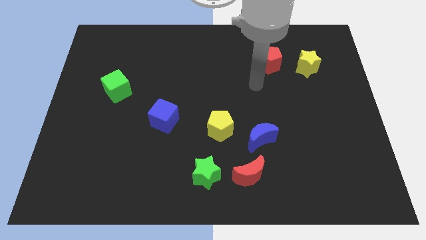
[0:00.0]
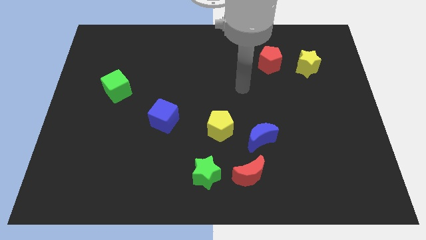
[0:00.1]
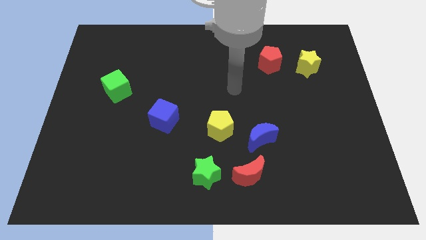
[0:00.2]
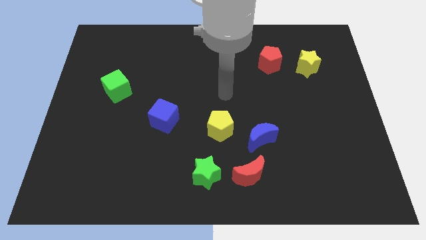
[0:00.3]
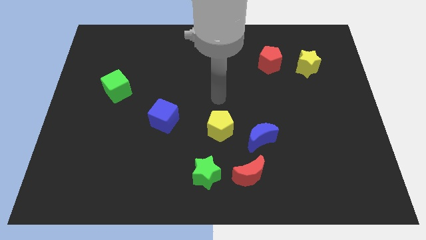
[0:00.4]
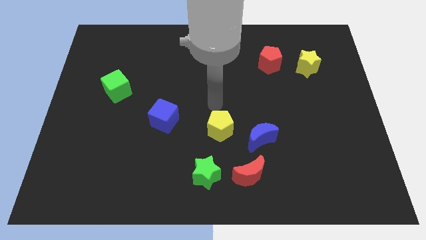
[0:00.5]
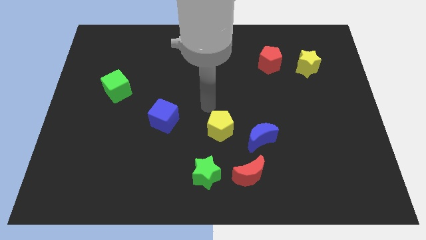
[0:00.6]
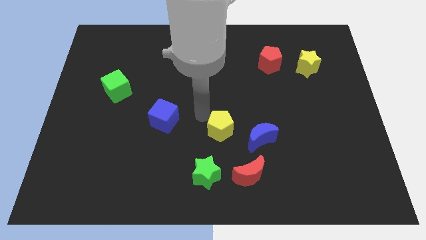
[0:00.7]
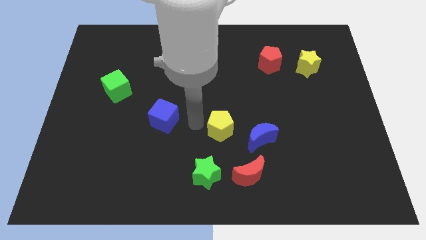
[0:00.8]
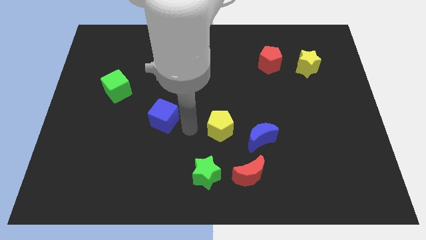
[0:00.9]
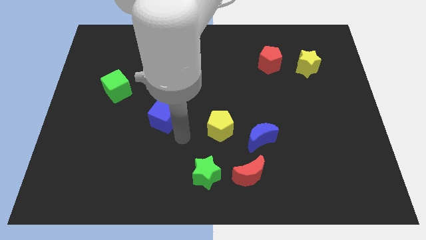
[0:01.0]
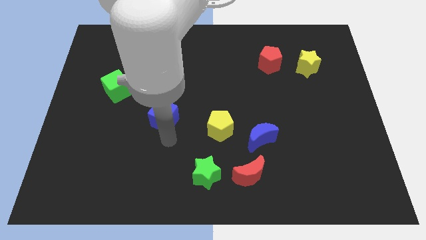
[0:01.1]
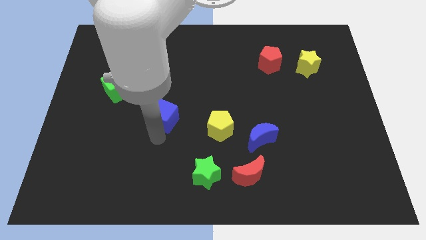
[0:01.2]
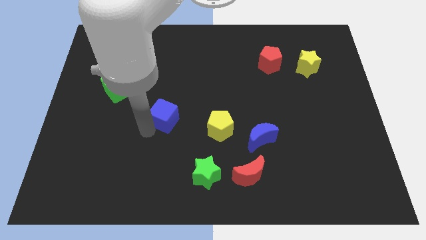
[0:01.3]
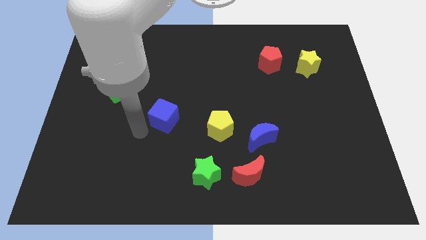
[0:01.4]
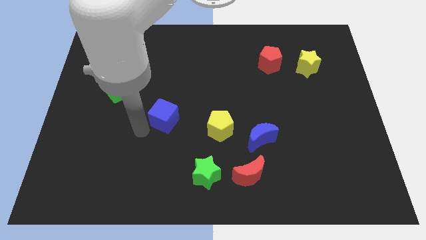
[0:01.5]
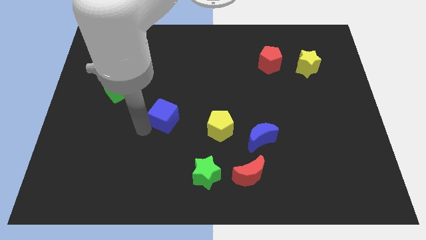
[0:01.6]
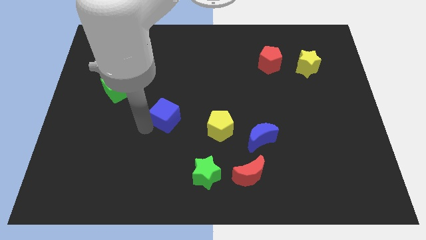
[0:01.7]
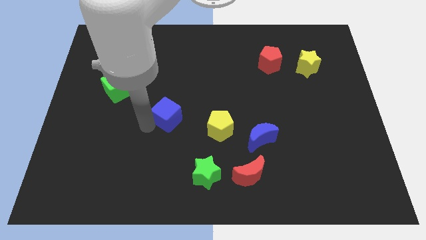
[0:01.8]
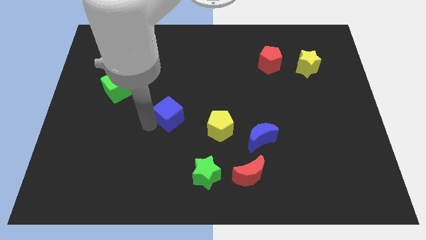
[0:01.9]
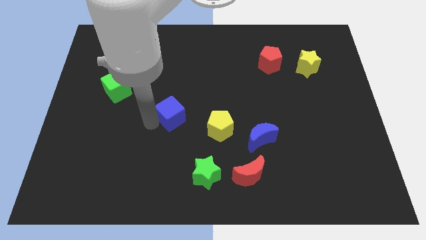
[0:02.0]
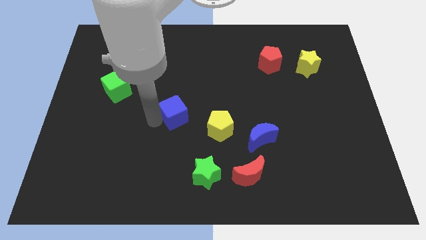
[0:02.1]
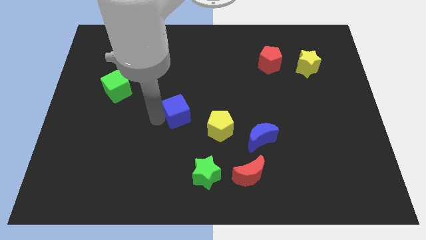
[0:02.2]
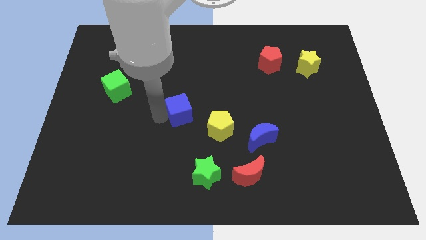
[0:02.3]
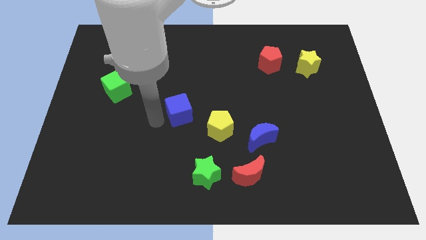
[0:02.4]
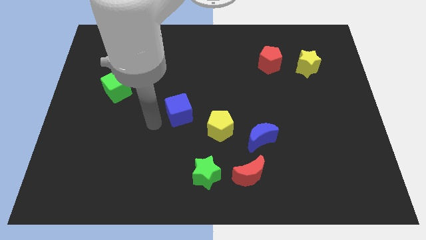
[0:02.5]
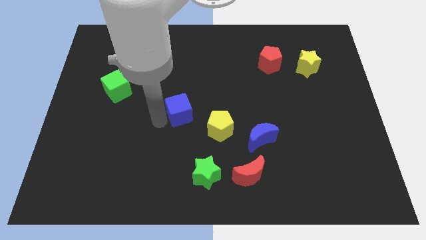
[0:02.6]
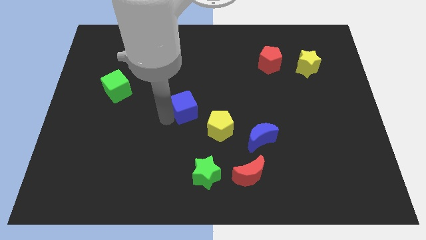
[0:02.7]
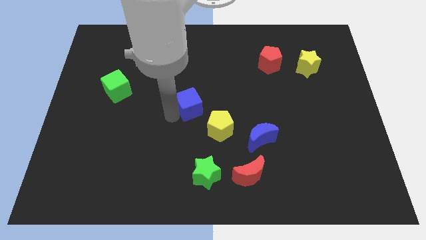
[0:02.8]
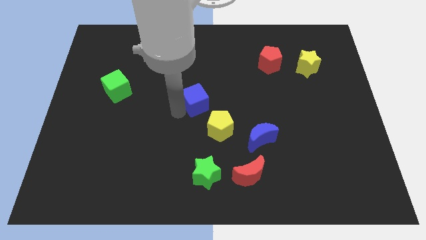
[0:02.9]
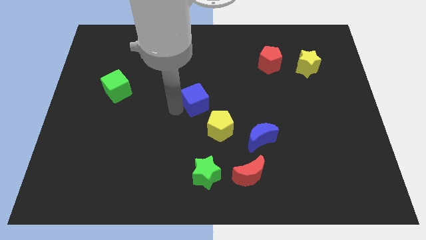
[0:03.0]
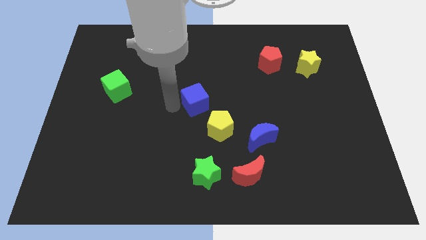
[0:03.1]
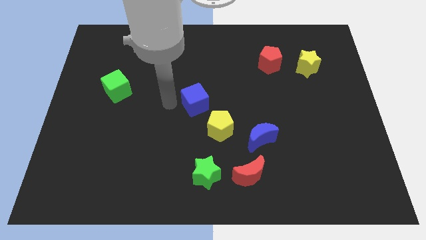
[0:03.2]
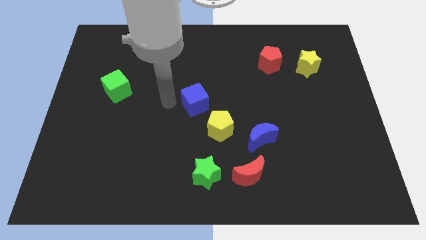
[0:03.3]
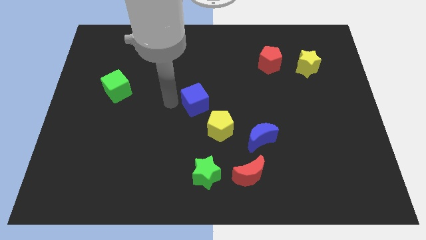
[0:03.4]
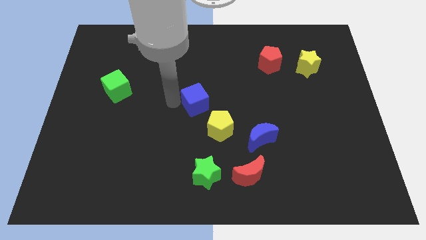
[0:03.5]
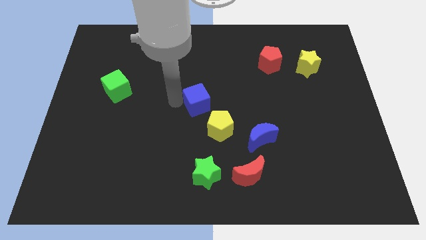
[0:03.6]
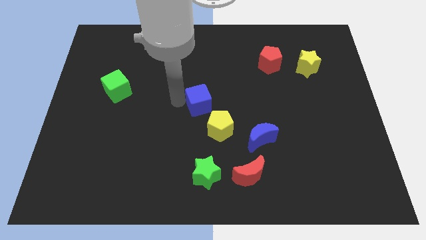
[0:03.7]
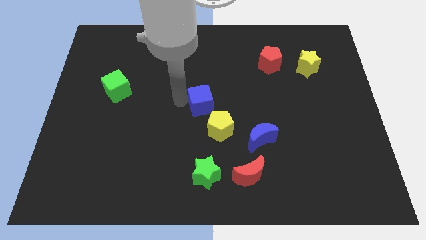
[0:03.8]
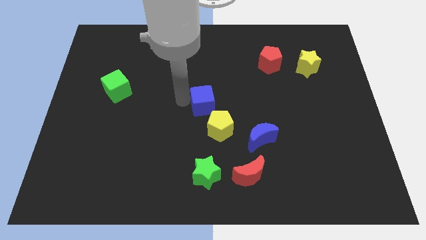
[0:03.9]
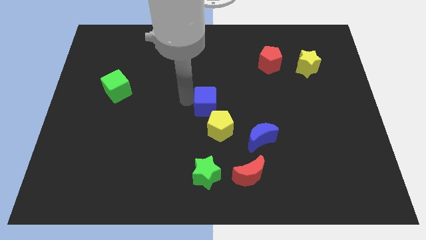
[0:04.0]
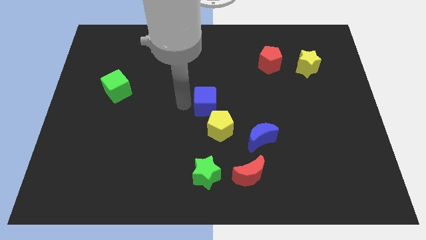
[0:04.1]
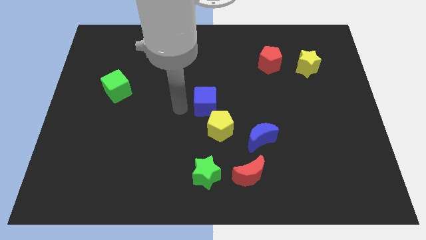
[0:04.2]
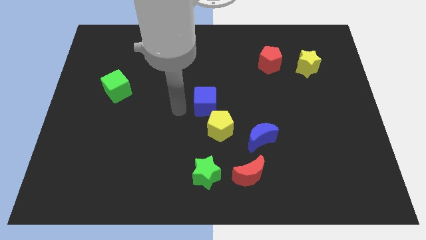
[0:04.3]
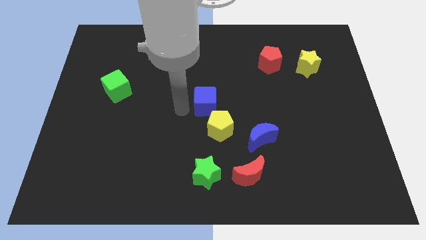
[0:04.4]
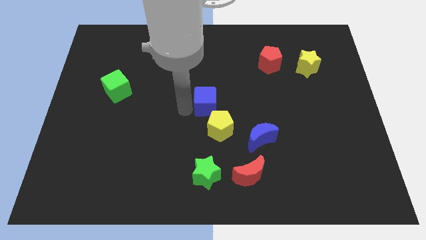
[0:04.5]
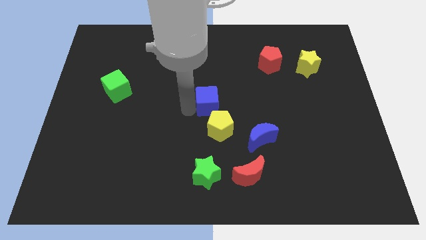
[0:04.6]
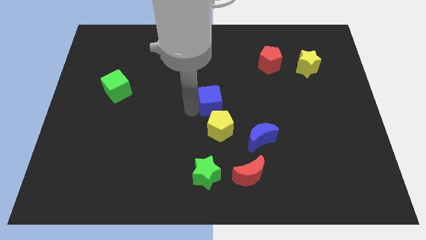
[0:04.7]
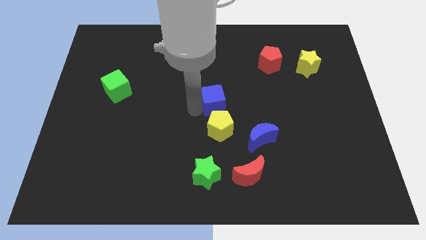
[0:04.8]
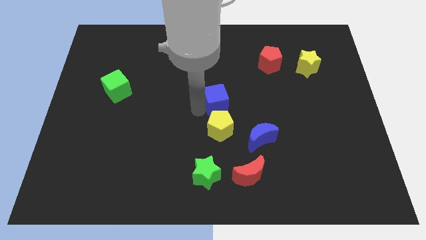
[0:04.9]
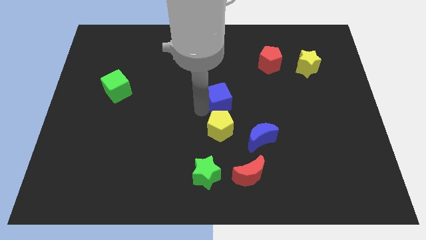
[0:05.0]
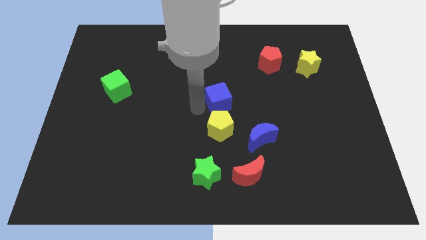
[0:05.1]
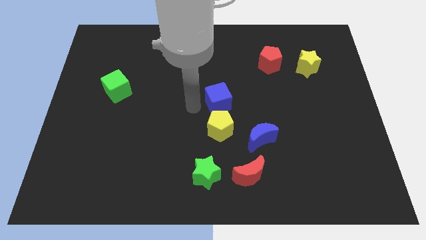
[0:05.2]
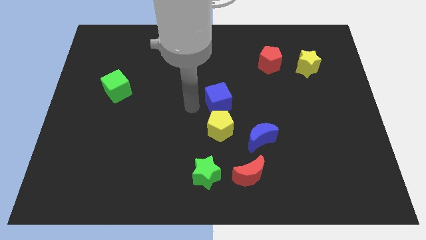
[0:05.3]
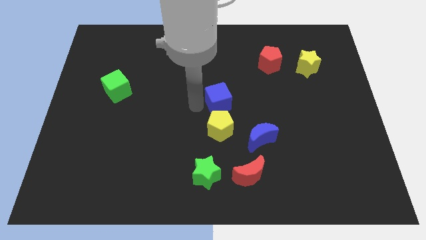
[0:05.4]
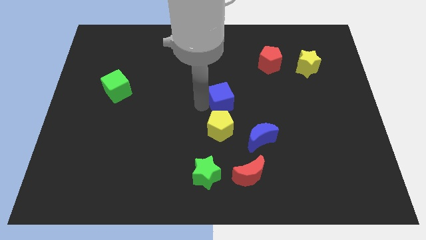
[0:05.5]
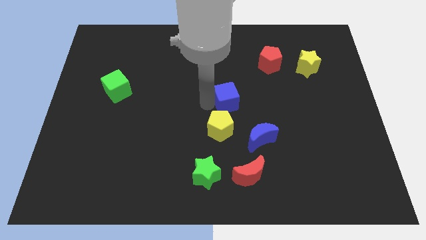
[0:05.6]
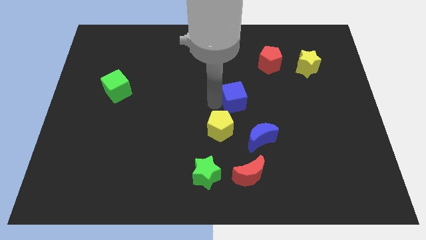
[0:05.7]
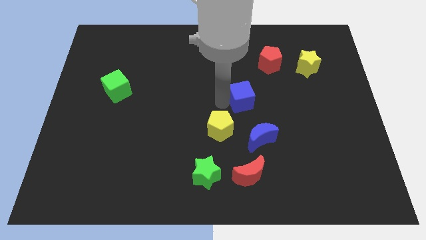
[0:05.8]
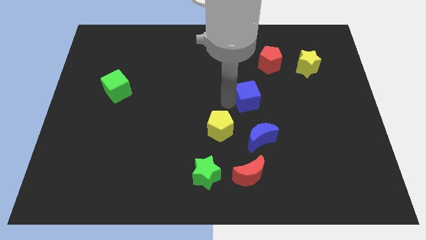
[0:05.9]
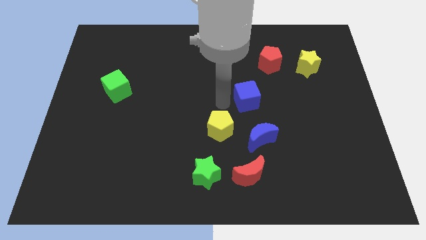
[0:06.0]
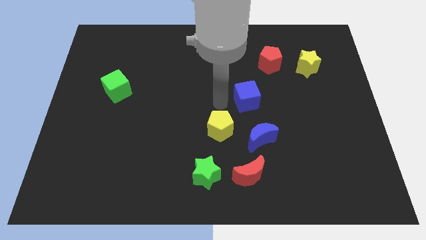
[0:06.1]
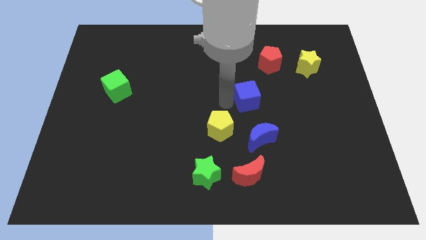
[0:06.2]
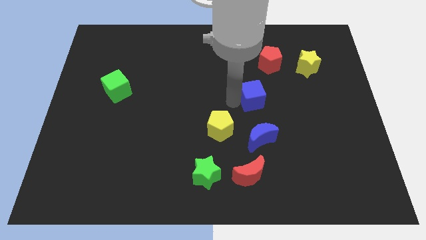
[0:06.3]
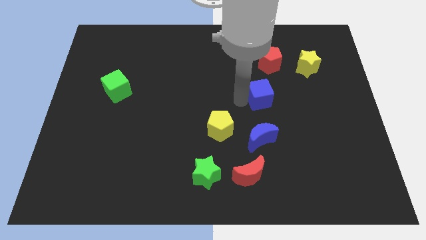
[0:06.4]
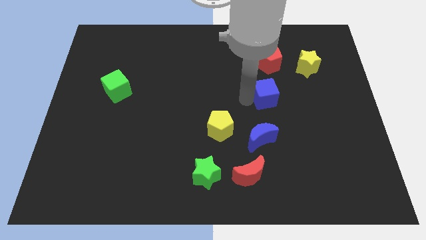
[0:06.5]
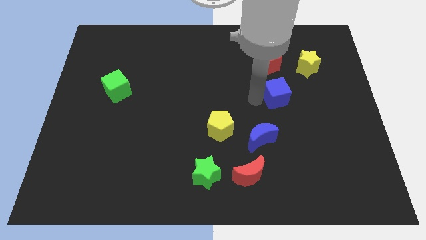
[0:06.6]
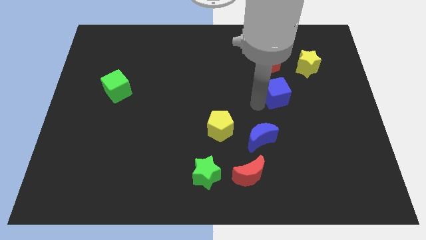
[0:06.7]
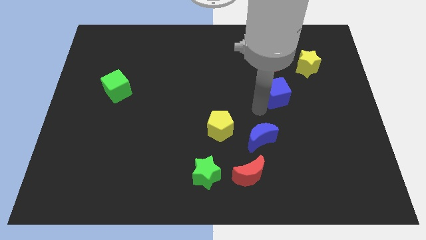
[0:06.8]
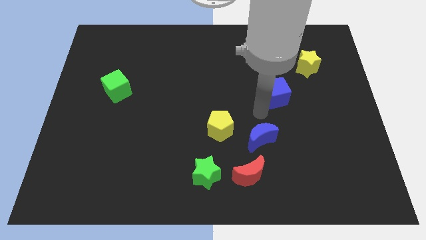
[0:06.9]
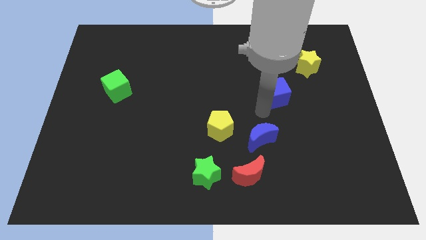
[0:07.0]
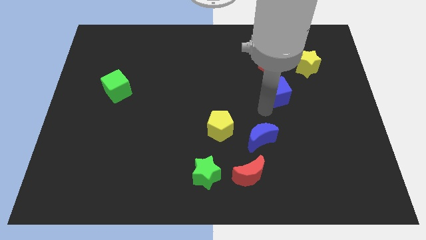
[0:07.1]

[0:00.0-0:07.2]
move the blue cube diagonally down and to the left of the yellow star
